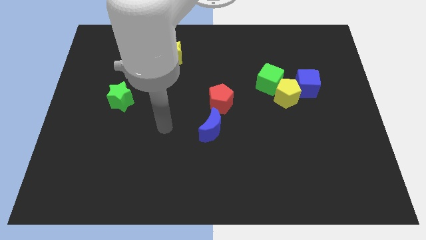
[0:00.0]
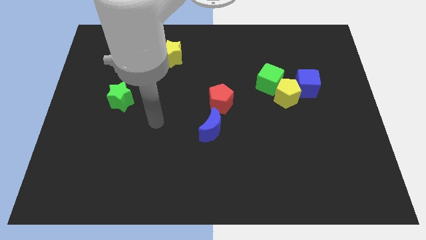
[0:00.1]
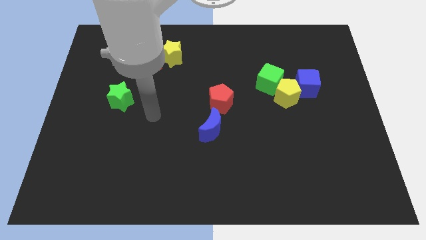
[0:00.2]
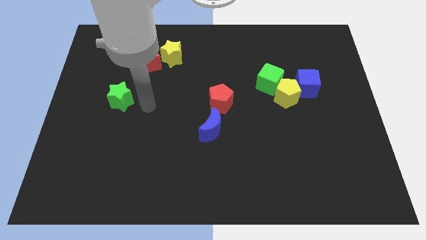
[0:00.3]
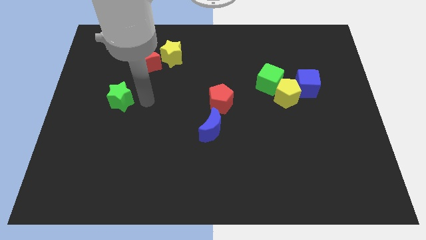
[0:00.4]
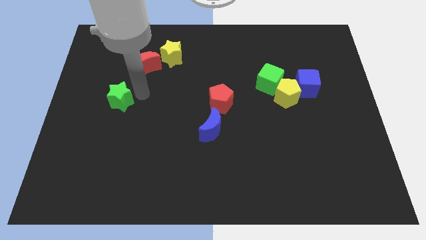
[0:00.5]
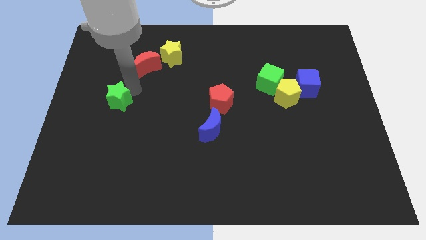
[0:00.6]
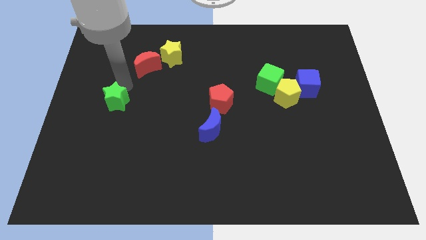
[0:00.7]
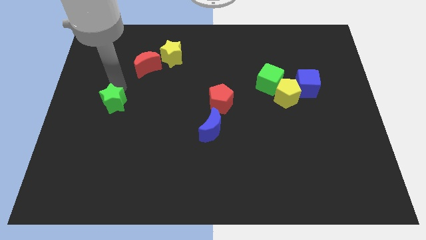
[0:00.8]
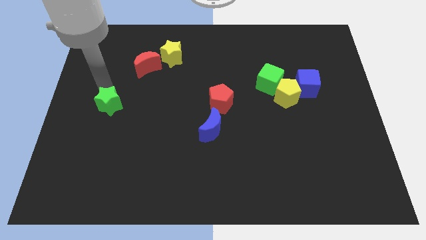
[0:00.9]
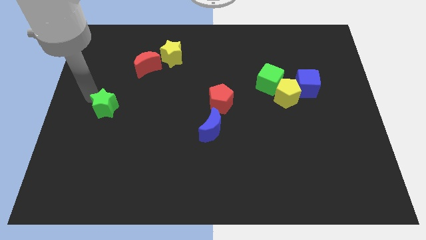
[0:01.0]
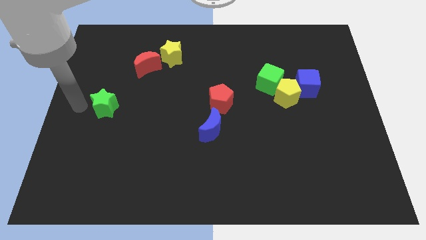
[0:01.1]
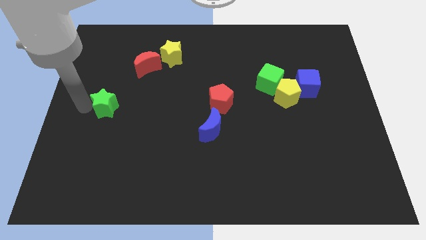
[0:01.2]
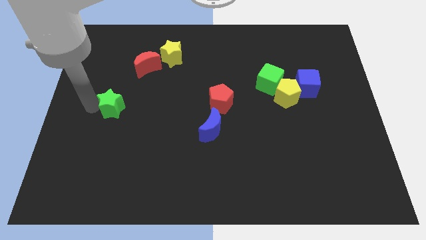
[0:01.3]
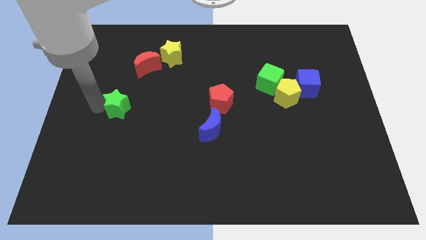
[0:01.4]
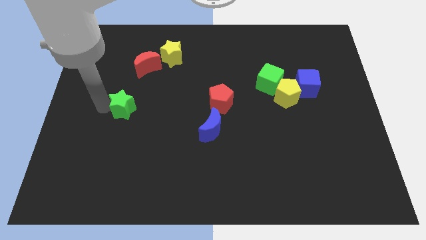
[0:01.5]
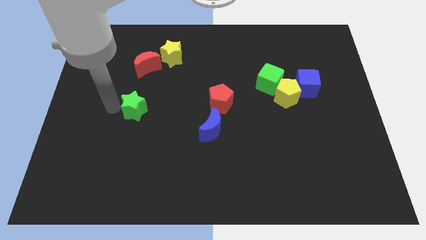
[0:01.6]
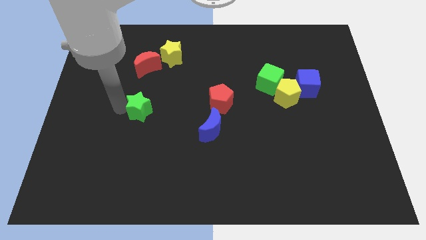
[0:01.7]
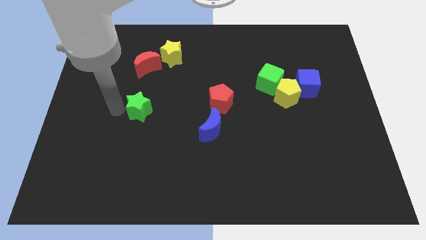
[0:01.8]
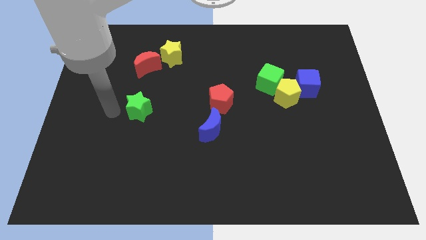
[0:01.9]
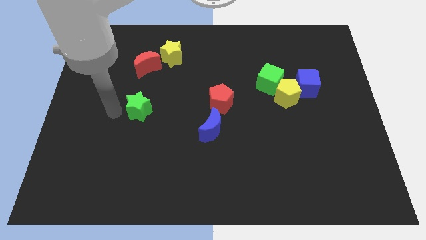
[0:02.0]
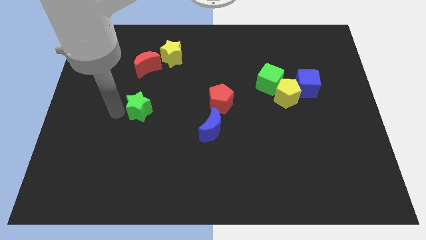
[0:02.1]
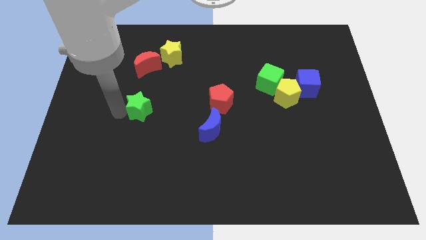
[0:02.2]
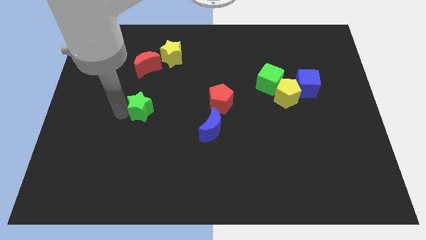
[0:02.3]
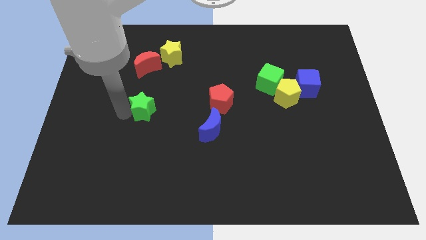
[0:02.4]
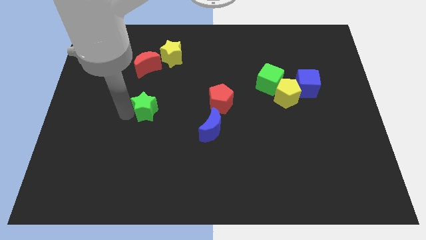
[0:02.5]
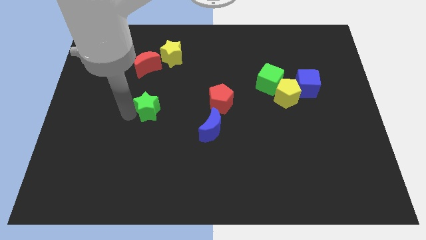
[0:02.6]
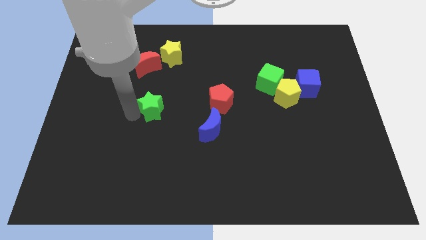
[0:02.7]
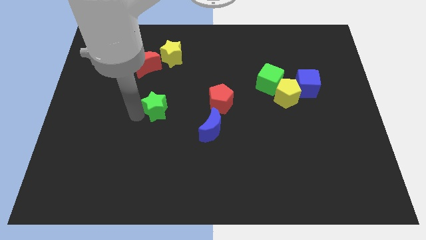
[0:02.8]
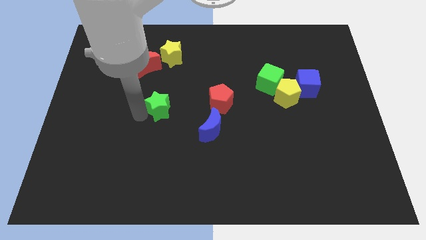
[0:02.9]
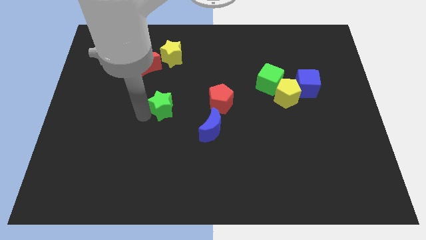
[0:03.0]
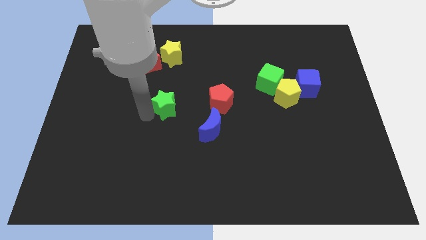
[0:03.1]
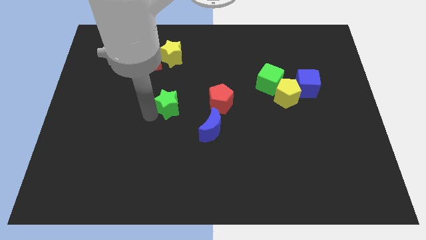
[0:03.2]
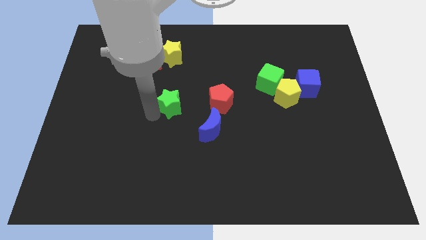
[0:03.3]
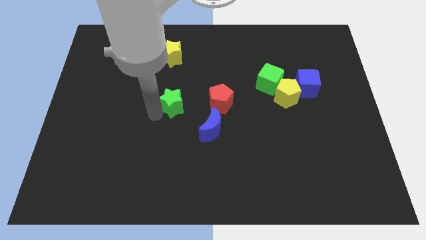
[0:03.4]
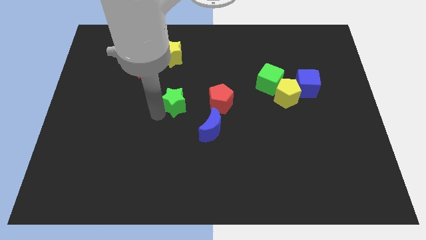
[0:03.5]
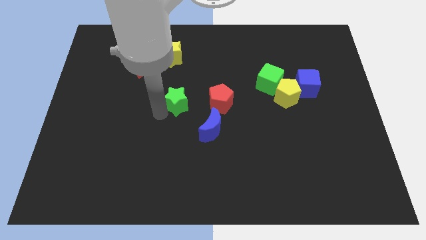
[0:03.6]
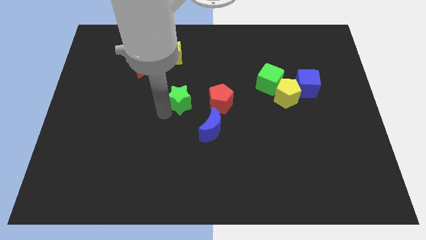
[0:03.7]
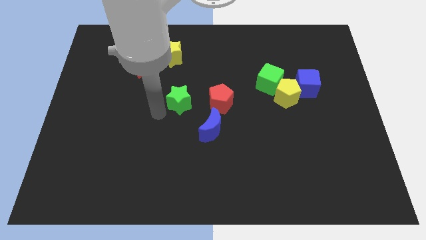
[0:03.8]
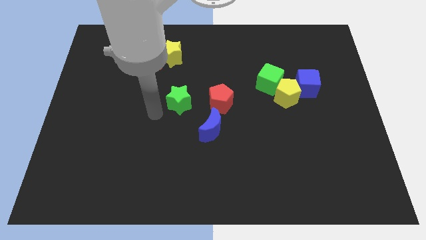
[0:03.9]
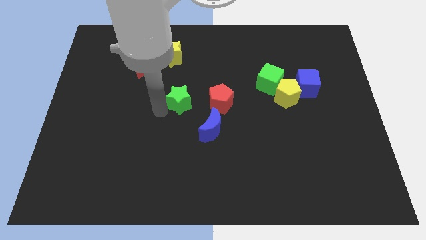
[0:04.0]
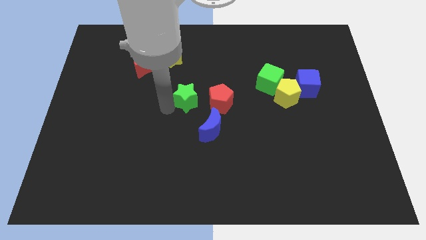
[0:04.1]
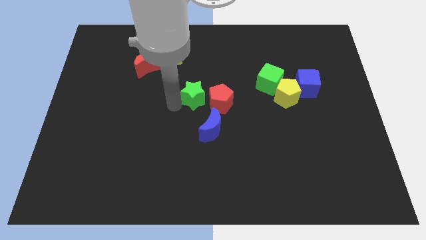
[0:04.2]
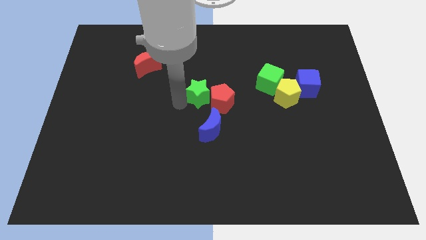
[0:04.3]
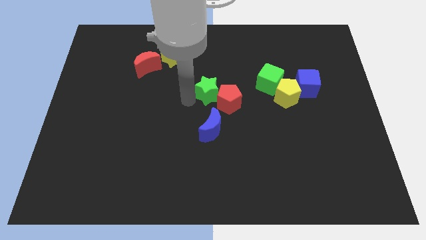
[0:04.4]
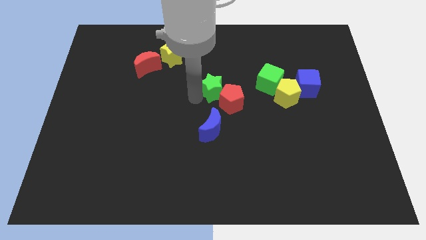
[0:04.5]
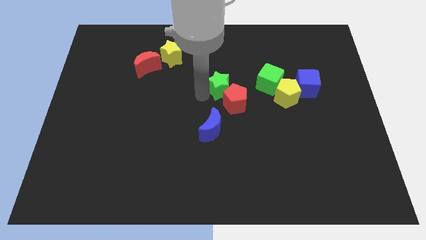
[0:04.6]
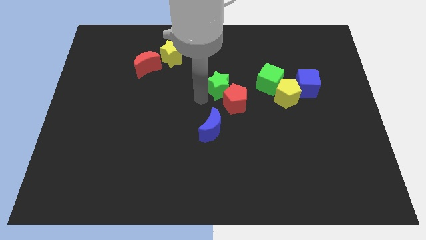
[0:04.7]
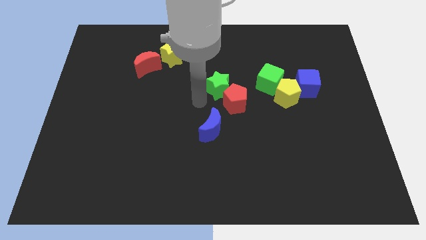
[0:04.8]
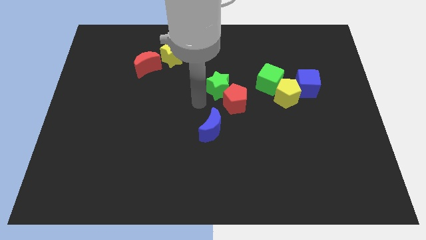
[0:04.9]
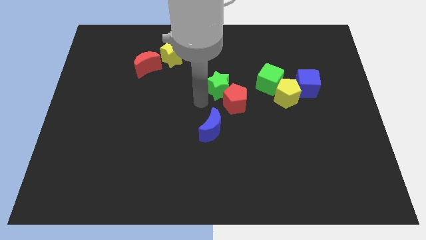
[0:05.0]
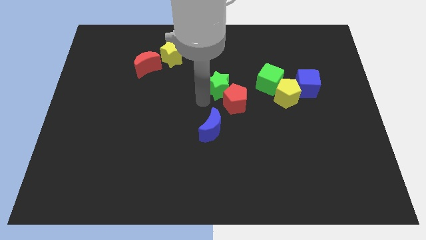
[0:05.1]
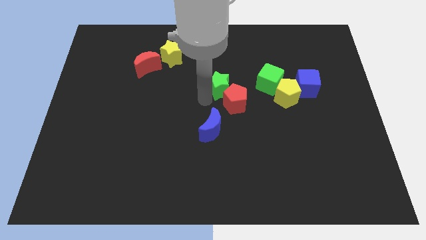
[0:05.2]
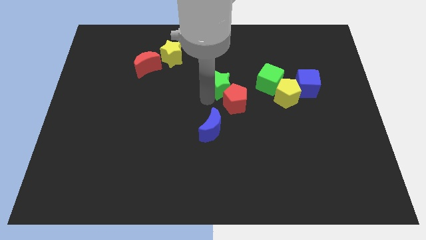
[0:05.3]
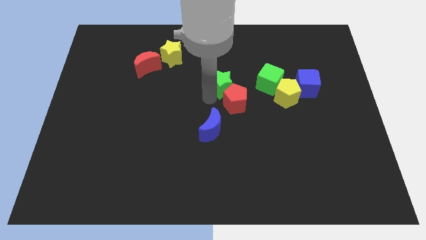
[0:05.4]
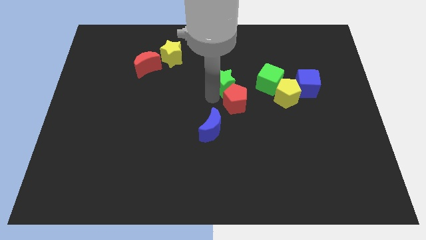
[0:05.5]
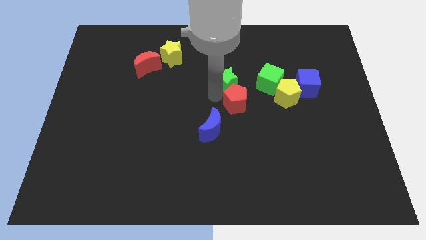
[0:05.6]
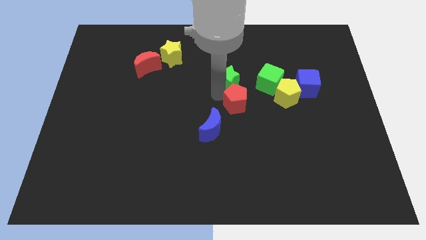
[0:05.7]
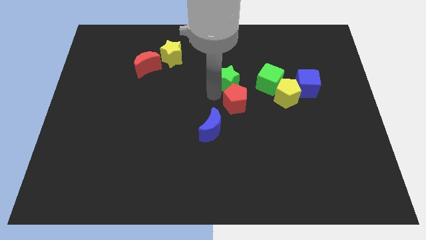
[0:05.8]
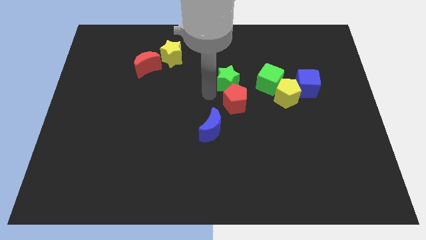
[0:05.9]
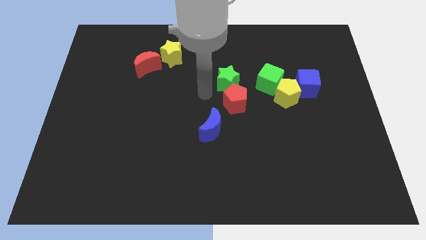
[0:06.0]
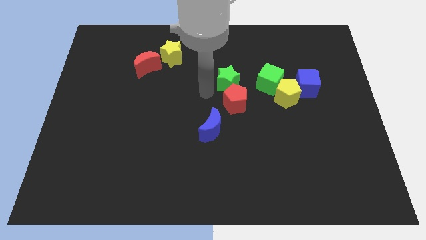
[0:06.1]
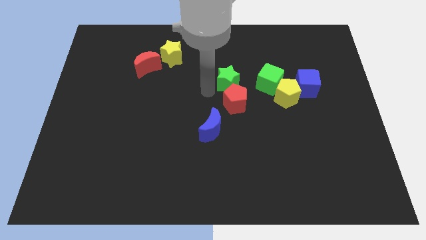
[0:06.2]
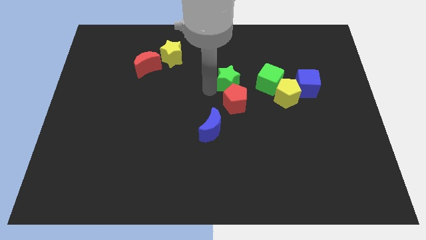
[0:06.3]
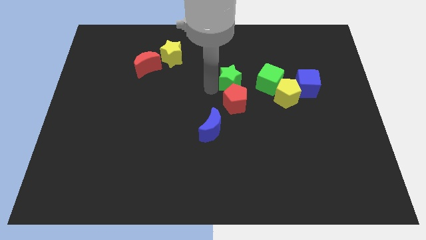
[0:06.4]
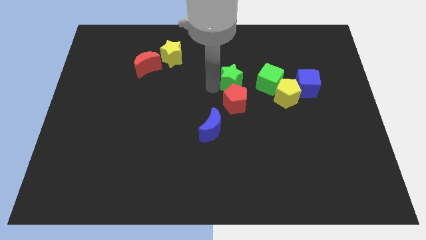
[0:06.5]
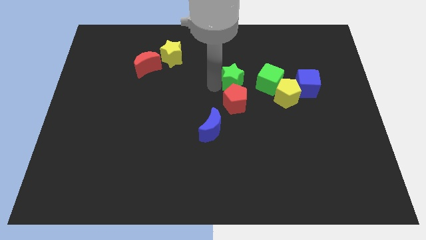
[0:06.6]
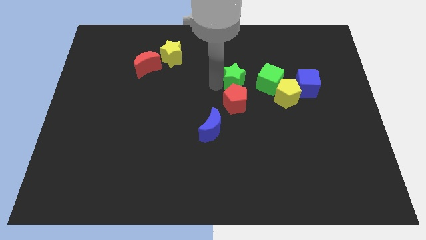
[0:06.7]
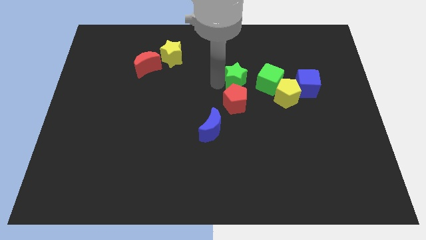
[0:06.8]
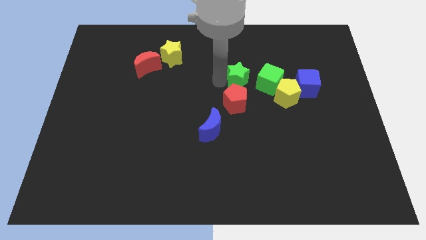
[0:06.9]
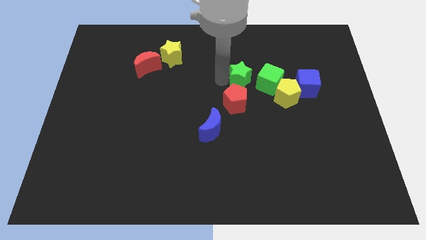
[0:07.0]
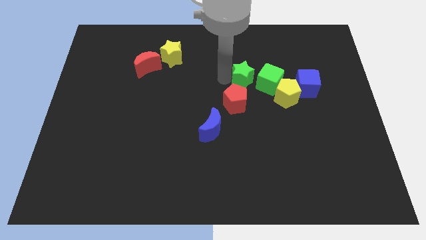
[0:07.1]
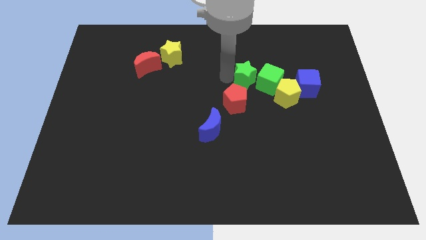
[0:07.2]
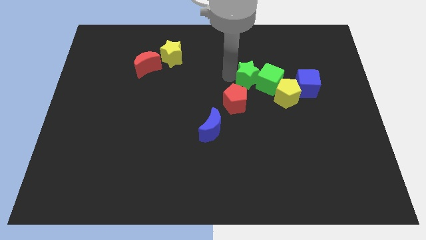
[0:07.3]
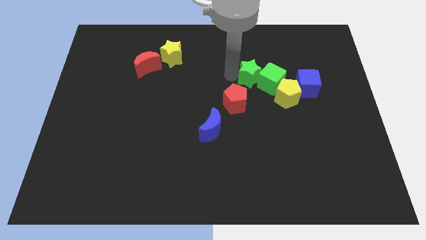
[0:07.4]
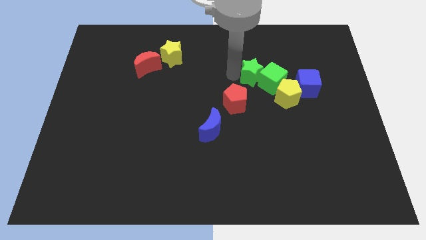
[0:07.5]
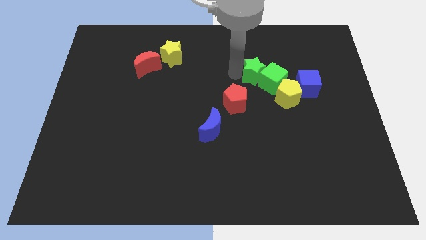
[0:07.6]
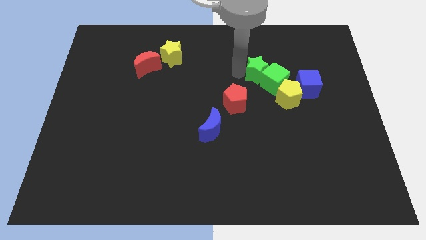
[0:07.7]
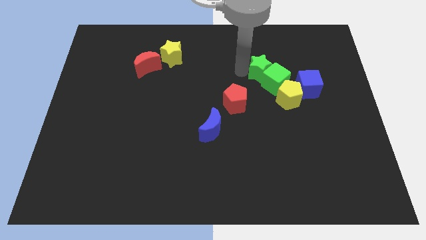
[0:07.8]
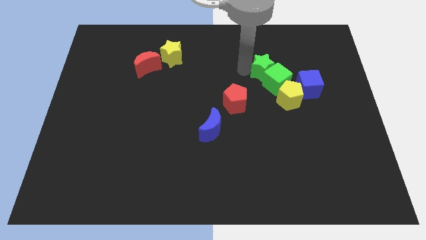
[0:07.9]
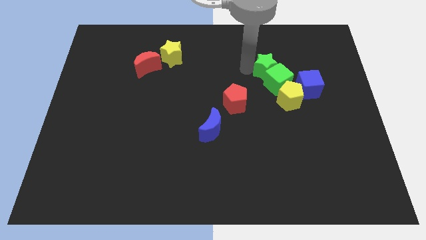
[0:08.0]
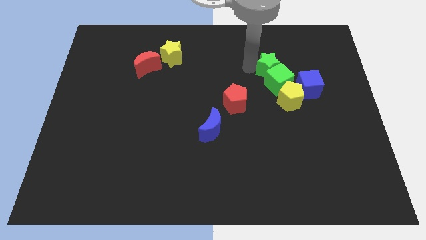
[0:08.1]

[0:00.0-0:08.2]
move the green star above the yellow pentagon
